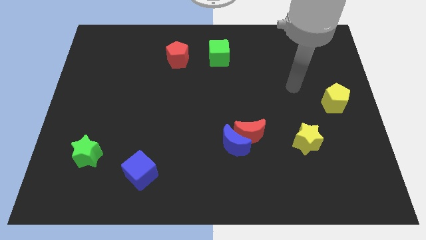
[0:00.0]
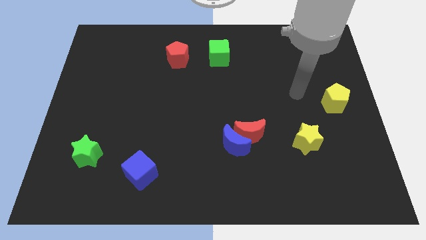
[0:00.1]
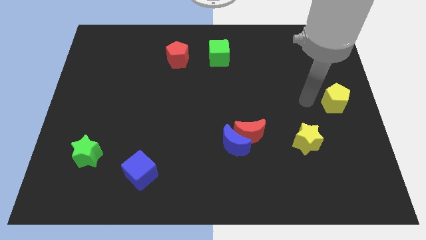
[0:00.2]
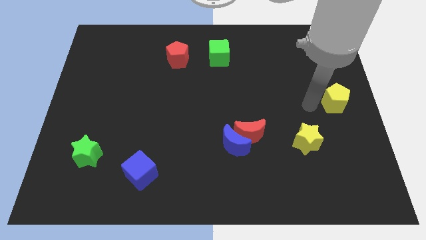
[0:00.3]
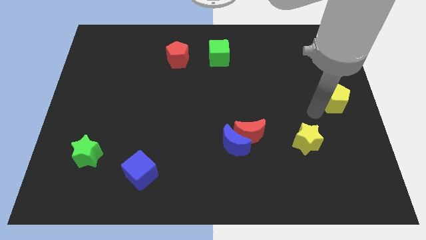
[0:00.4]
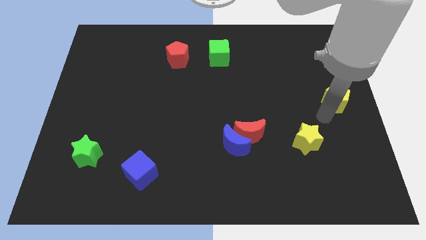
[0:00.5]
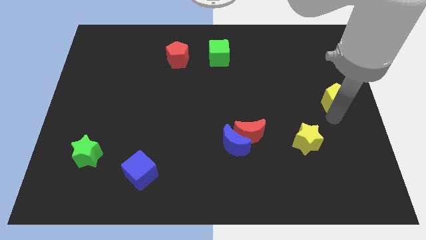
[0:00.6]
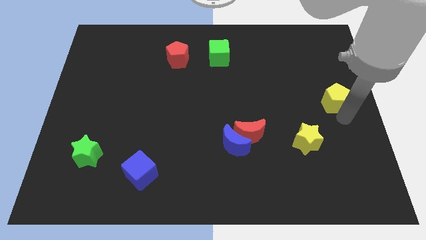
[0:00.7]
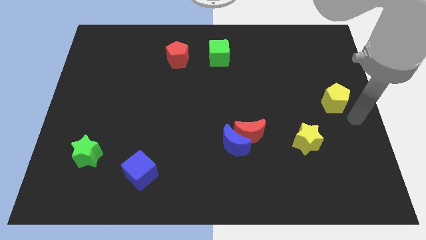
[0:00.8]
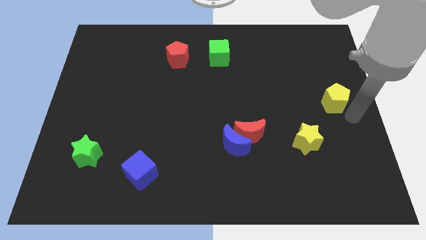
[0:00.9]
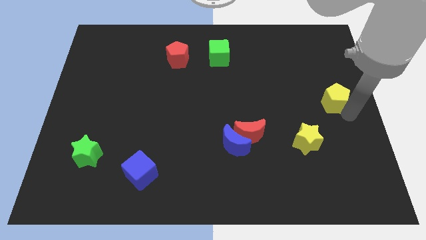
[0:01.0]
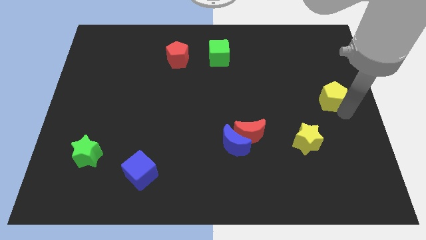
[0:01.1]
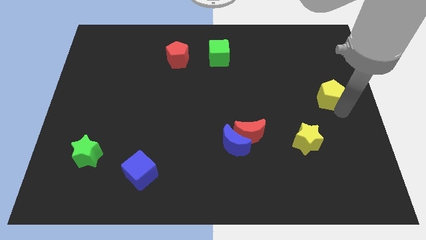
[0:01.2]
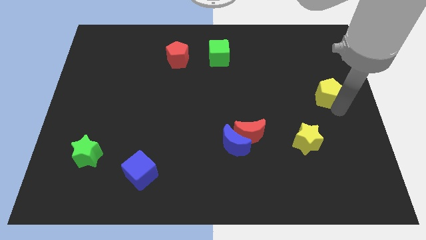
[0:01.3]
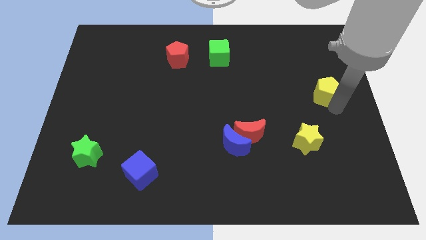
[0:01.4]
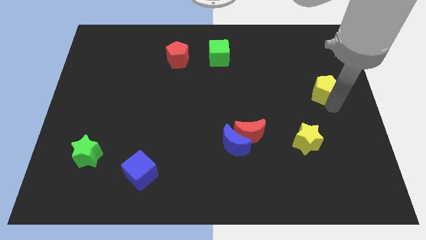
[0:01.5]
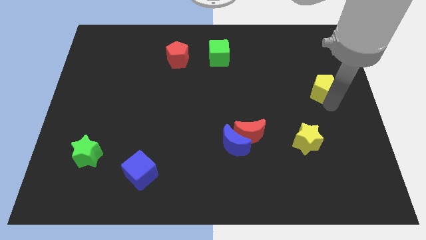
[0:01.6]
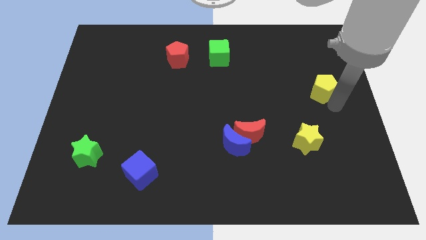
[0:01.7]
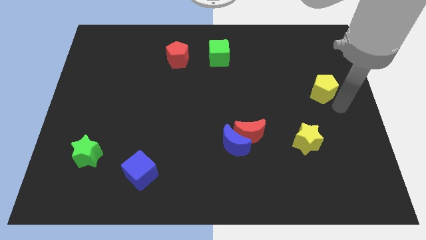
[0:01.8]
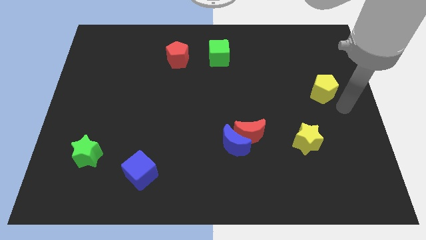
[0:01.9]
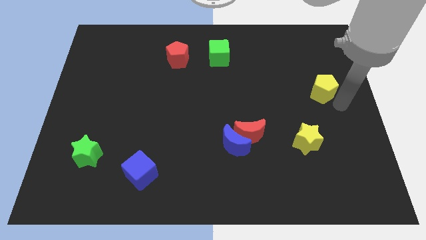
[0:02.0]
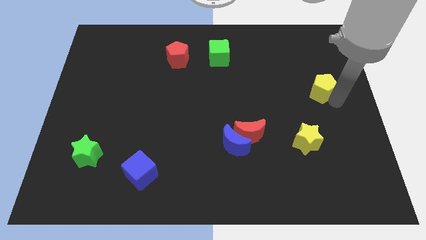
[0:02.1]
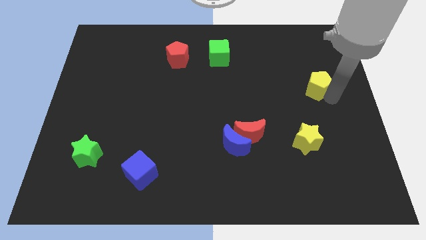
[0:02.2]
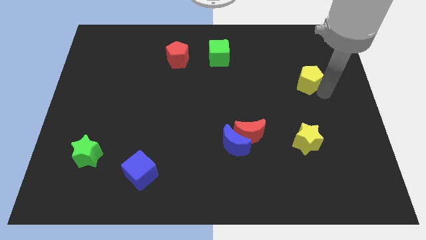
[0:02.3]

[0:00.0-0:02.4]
move the yellow pentagon a bit up and then left

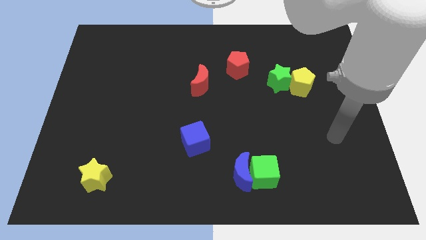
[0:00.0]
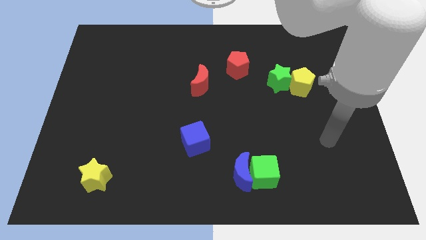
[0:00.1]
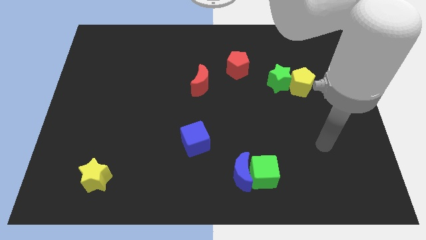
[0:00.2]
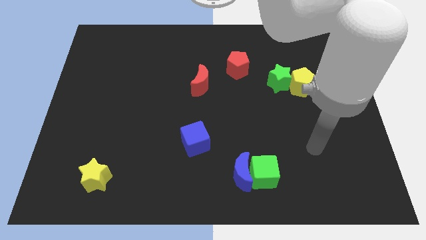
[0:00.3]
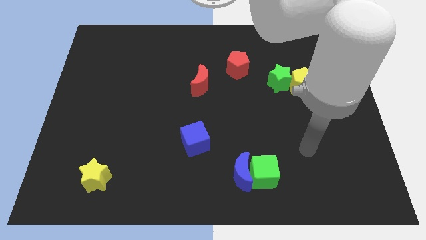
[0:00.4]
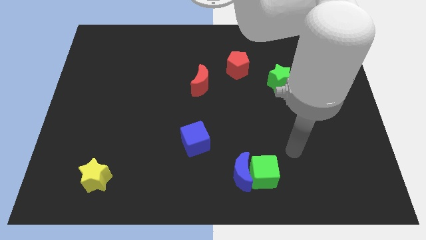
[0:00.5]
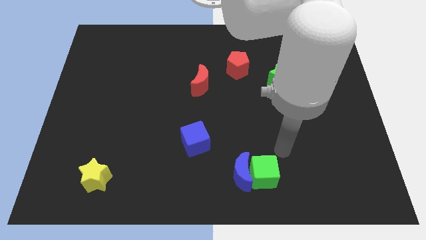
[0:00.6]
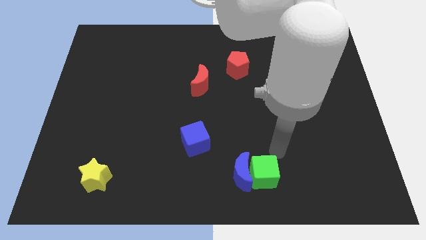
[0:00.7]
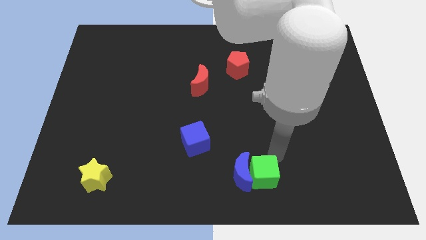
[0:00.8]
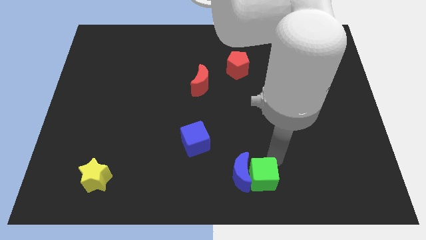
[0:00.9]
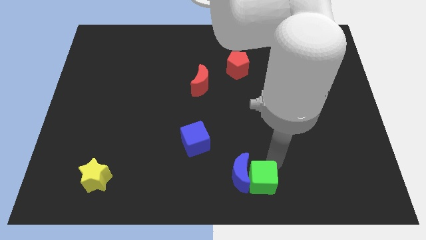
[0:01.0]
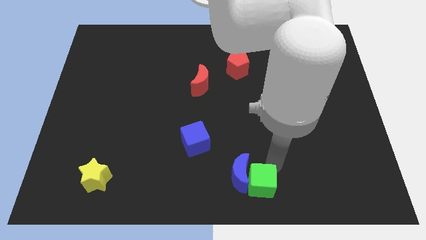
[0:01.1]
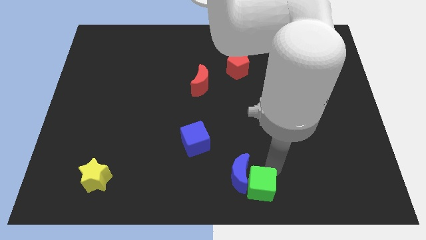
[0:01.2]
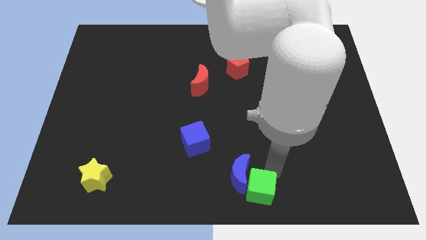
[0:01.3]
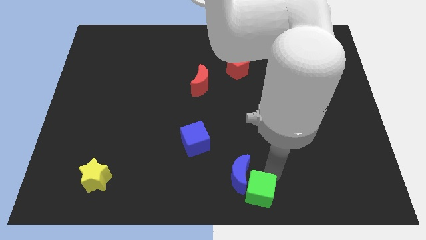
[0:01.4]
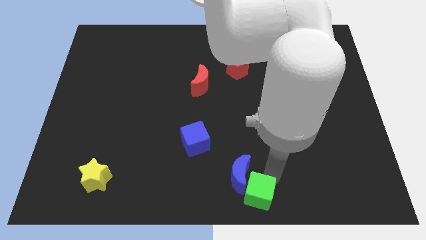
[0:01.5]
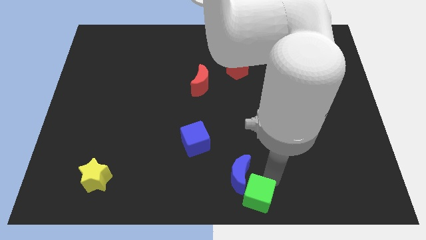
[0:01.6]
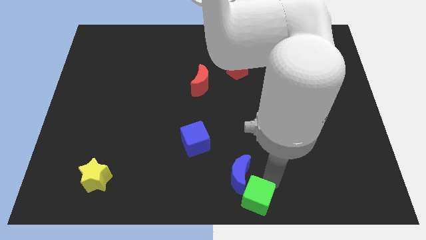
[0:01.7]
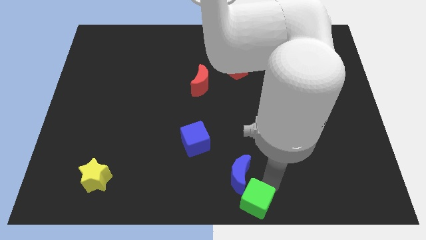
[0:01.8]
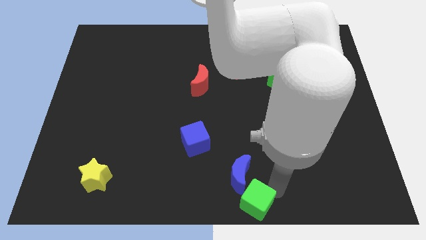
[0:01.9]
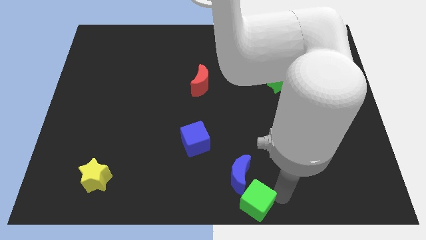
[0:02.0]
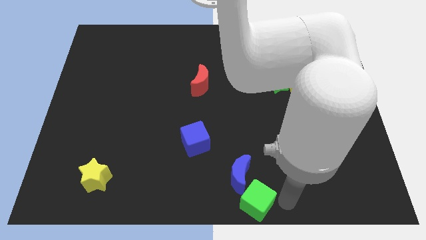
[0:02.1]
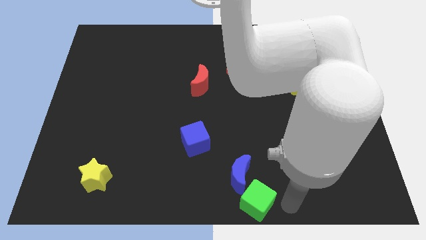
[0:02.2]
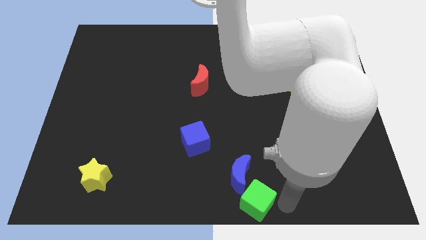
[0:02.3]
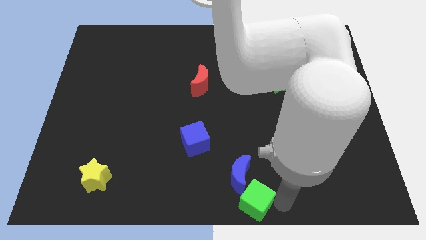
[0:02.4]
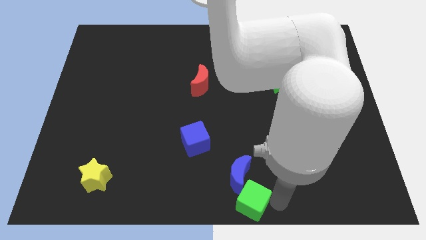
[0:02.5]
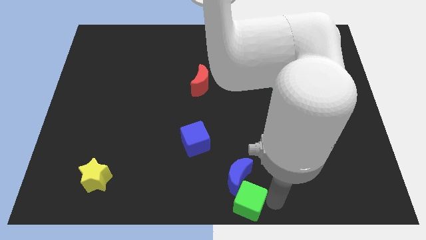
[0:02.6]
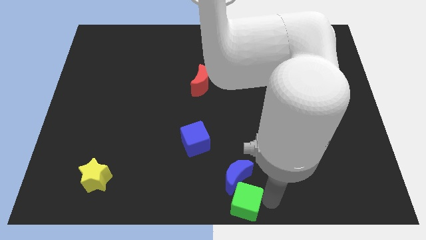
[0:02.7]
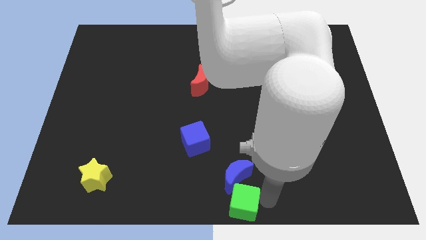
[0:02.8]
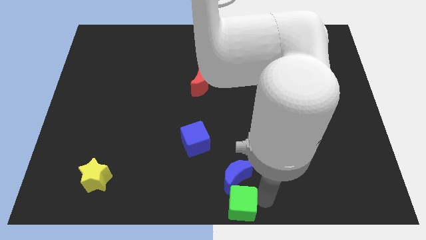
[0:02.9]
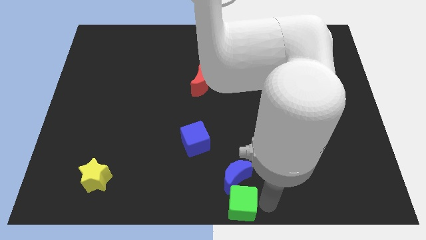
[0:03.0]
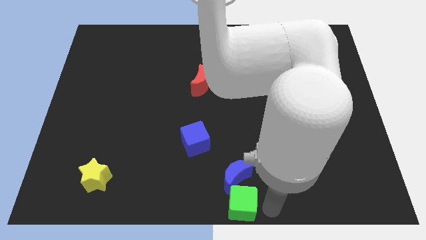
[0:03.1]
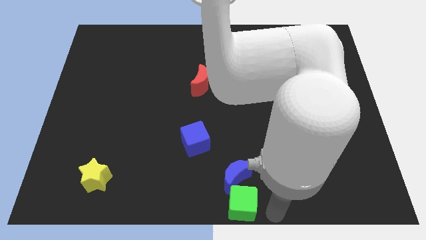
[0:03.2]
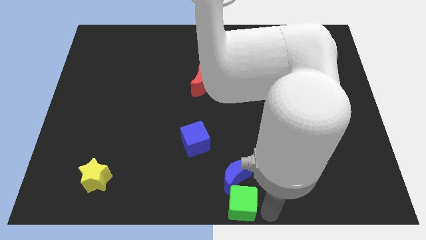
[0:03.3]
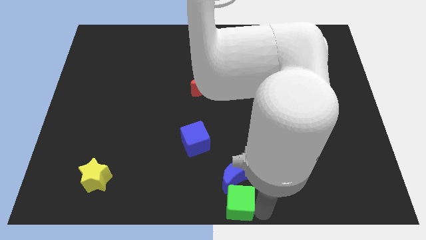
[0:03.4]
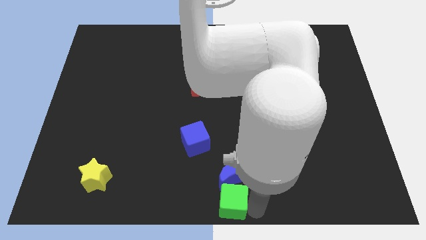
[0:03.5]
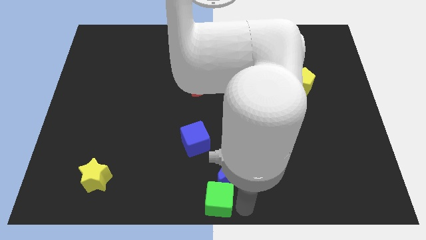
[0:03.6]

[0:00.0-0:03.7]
move the green cube to the left a little bit

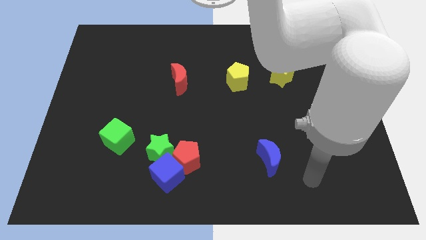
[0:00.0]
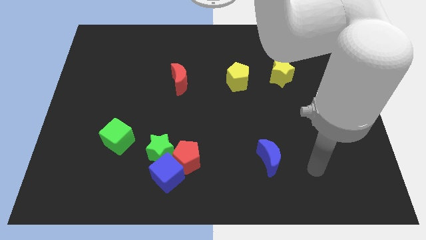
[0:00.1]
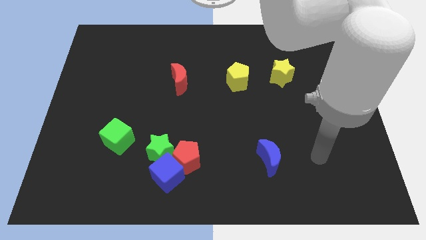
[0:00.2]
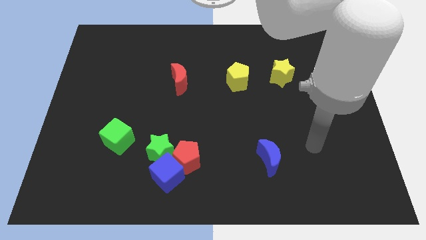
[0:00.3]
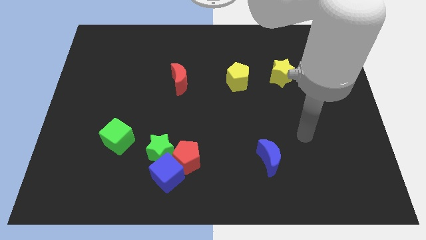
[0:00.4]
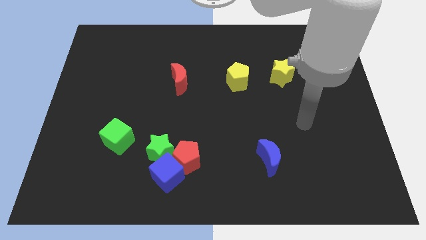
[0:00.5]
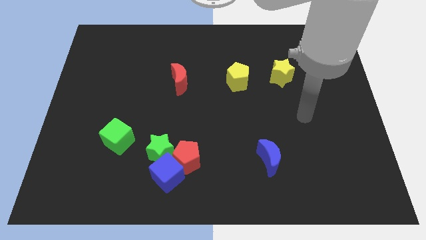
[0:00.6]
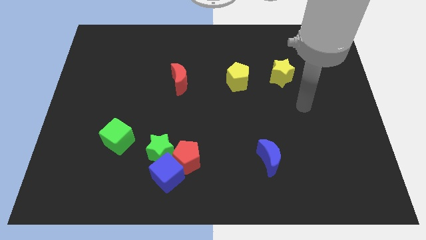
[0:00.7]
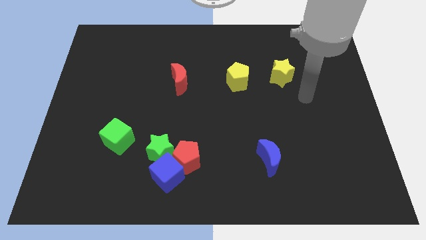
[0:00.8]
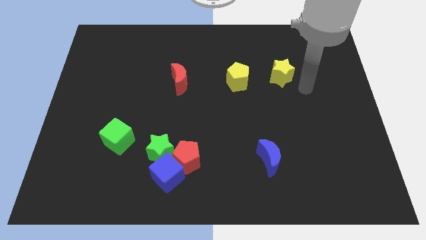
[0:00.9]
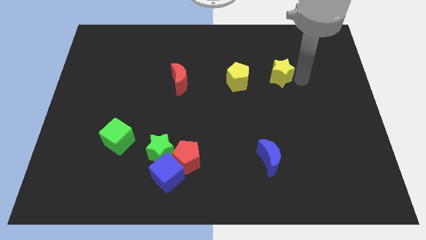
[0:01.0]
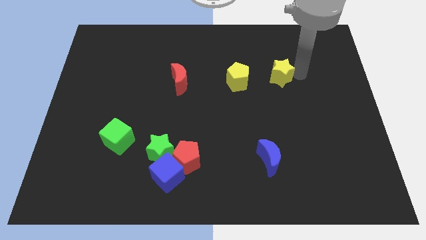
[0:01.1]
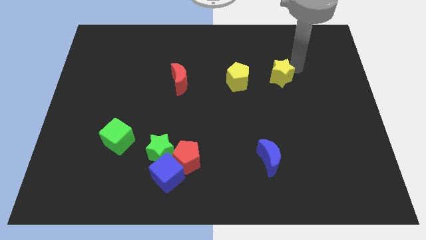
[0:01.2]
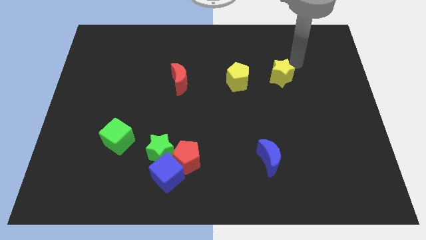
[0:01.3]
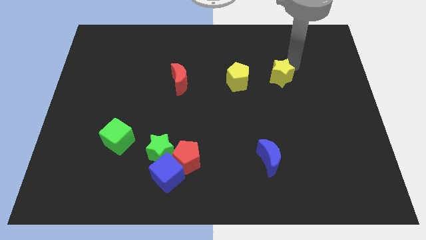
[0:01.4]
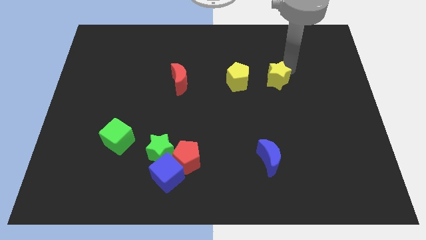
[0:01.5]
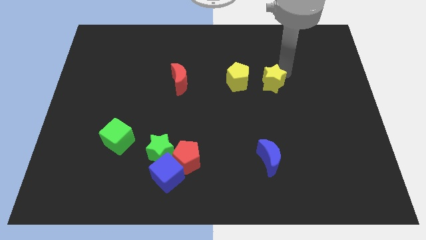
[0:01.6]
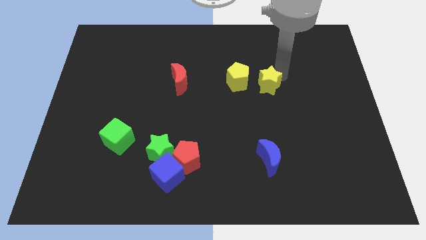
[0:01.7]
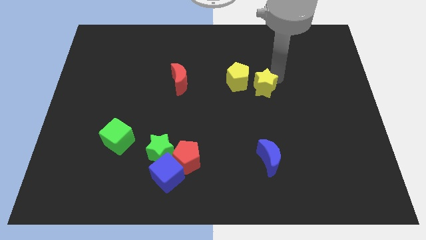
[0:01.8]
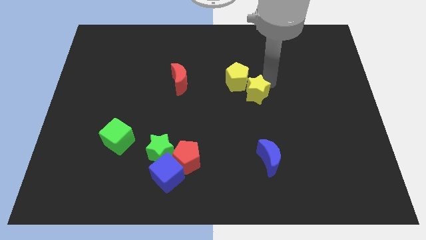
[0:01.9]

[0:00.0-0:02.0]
slide the yellow star slightly down and then to the left

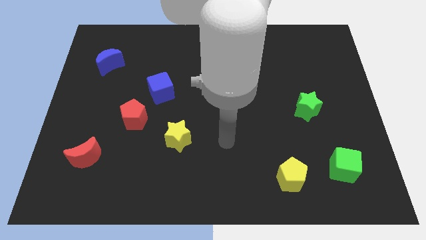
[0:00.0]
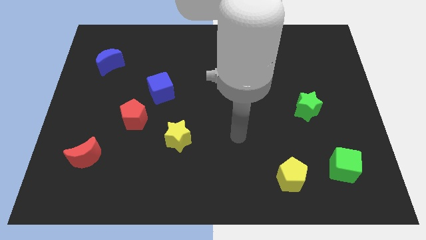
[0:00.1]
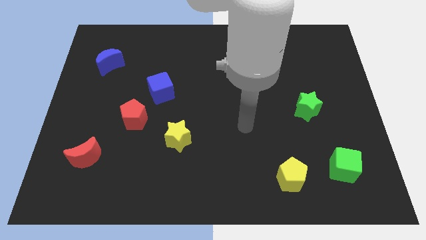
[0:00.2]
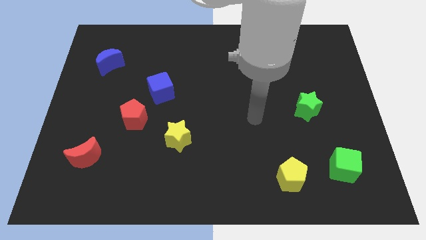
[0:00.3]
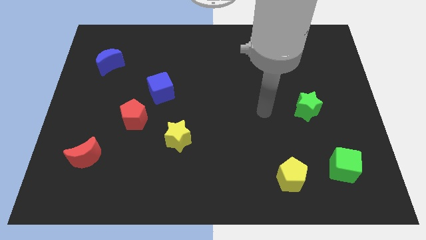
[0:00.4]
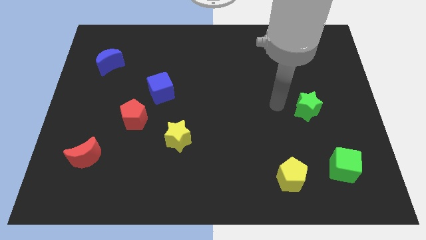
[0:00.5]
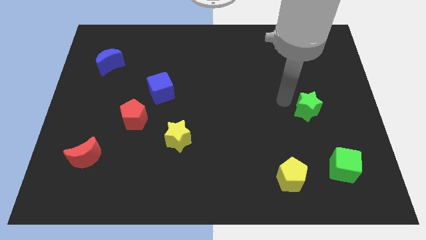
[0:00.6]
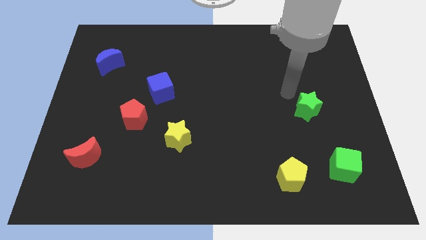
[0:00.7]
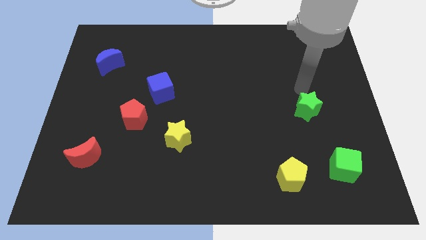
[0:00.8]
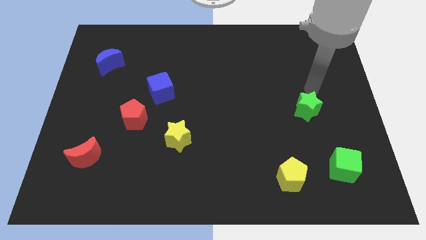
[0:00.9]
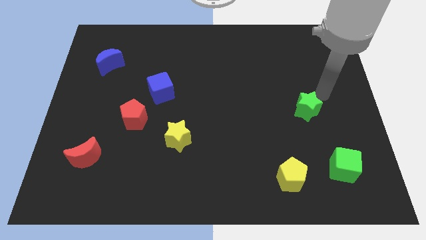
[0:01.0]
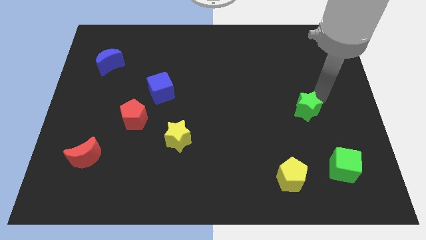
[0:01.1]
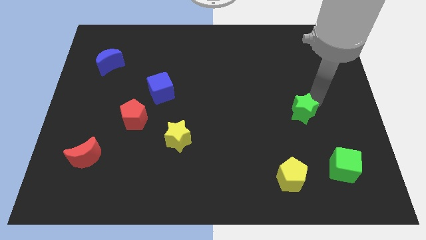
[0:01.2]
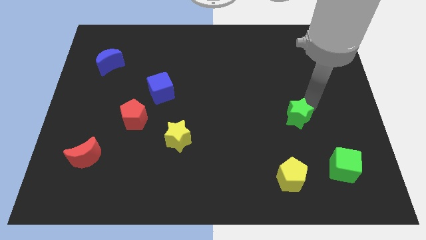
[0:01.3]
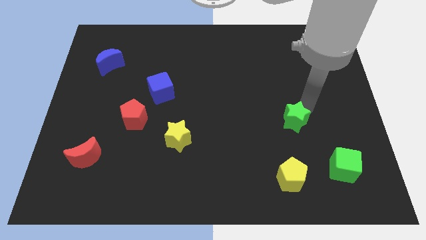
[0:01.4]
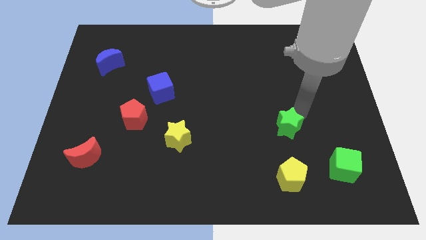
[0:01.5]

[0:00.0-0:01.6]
slightly slide the green star down and left diagonally
